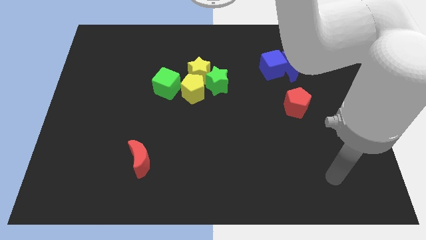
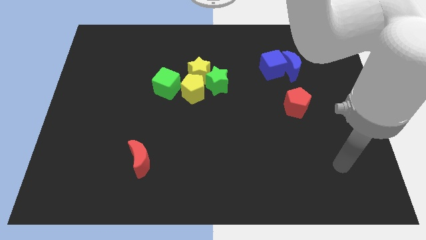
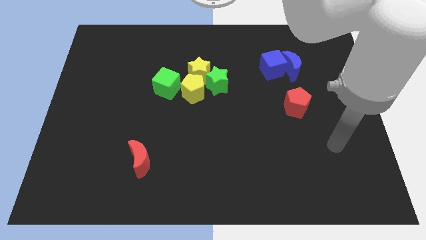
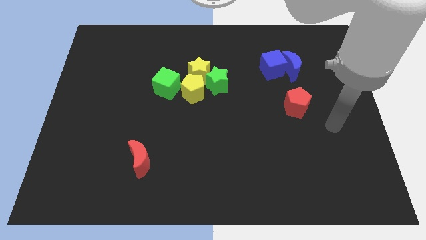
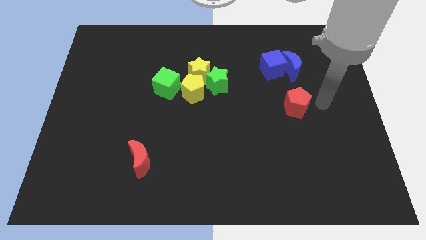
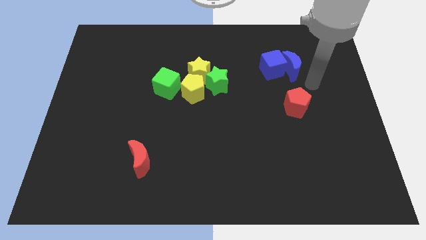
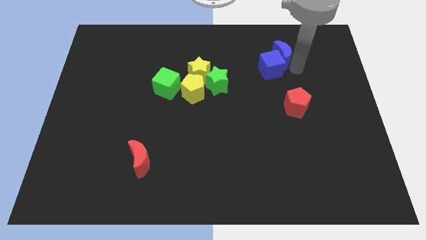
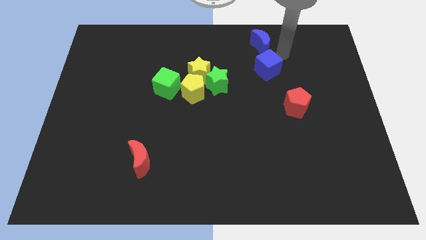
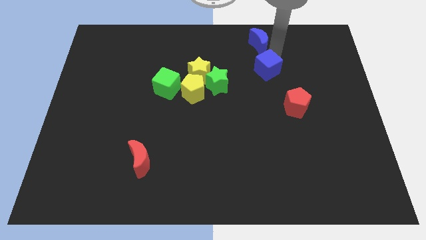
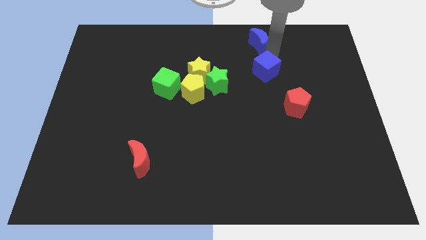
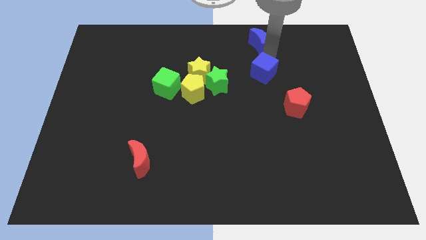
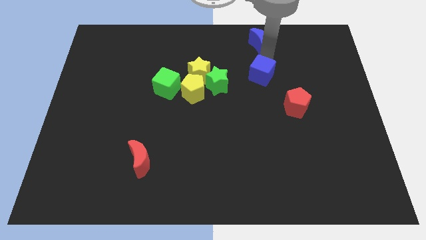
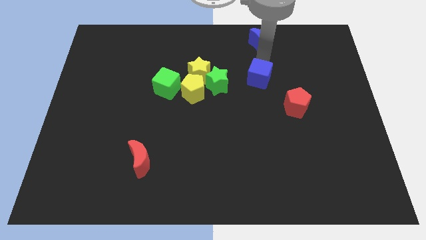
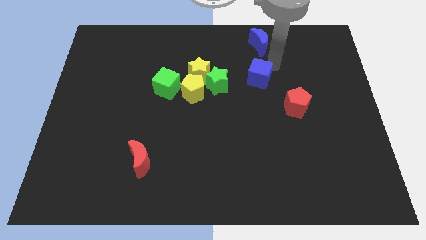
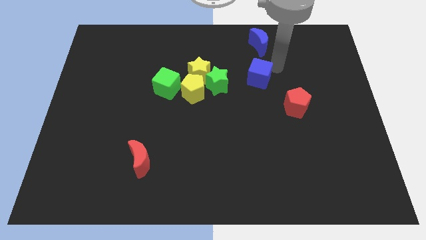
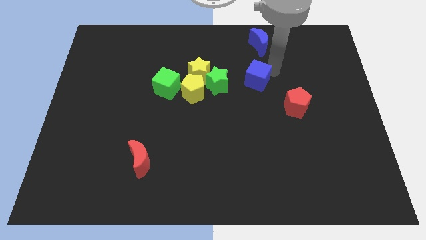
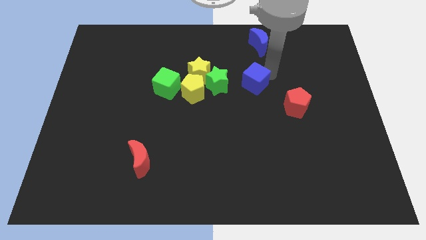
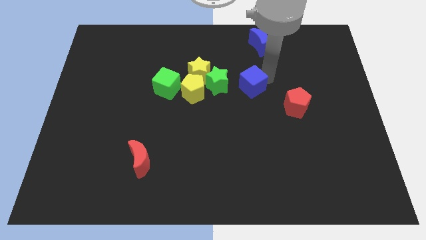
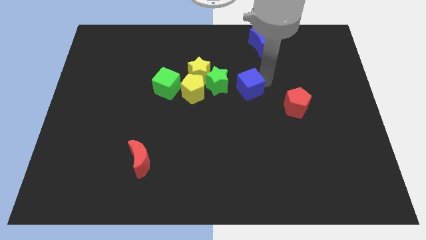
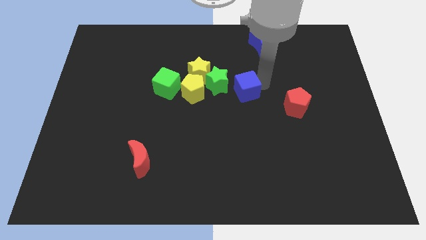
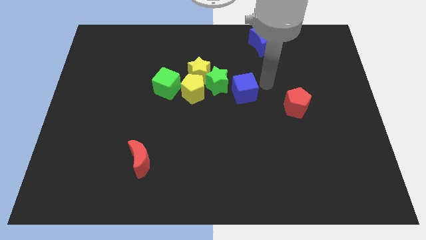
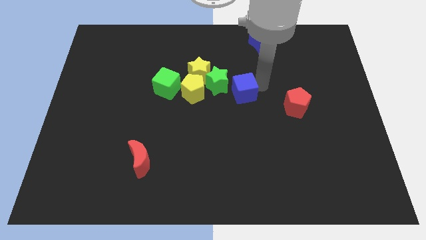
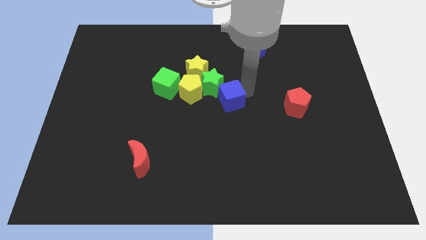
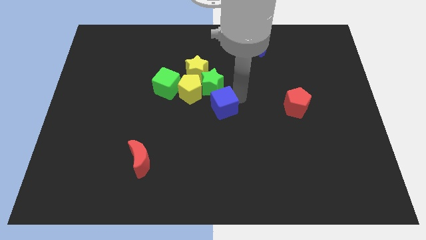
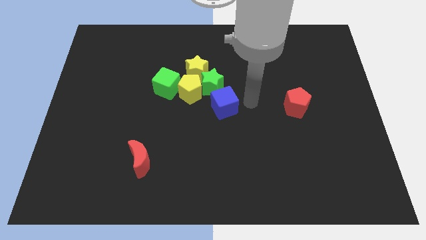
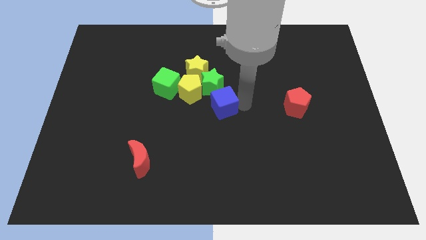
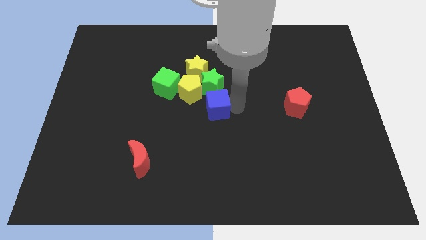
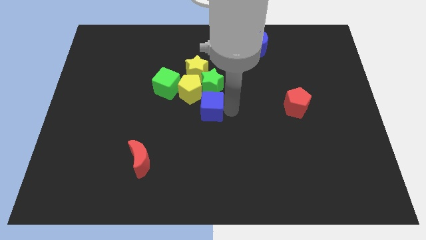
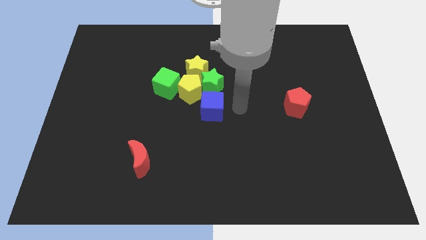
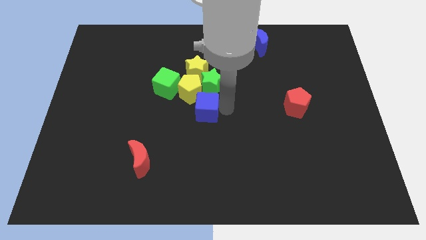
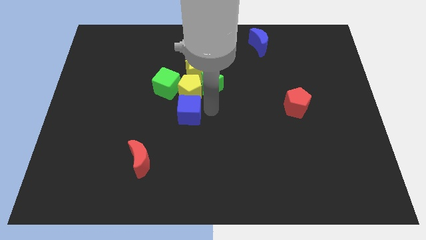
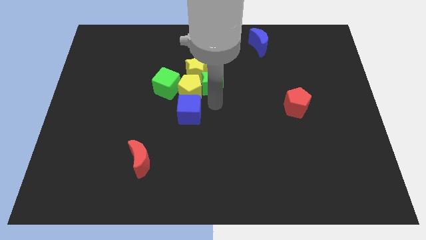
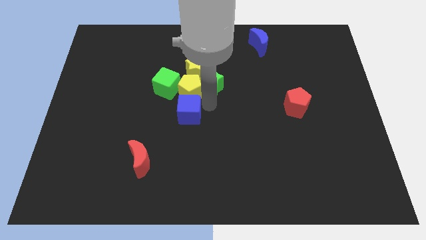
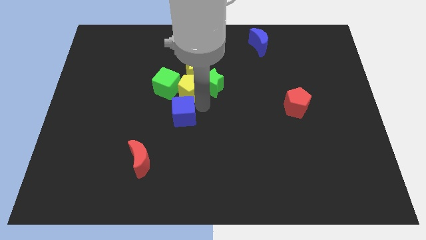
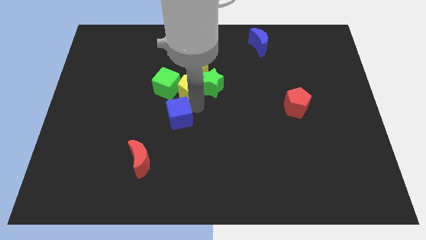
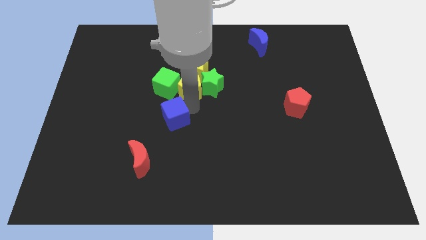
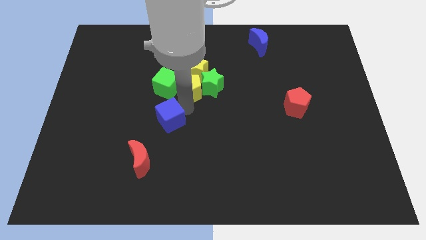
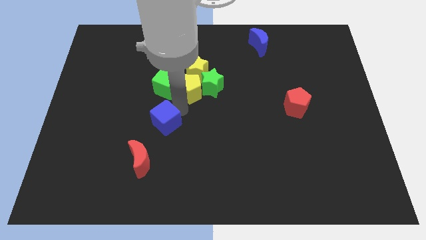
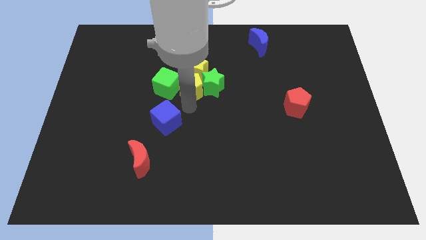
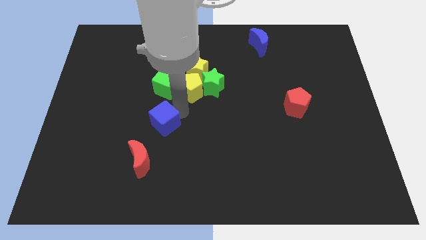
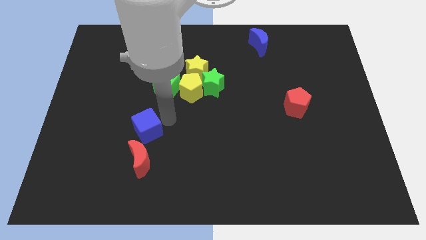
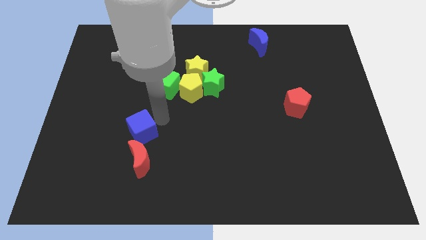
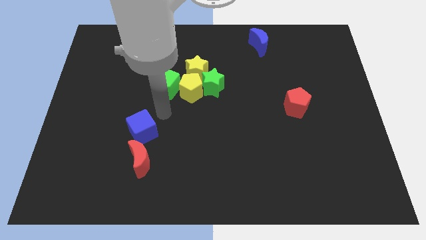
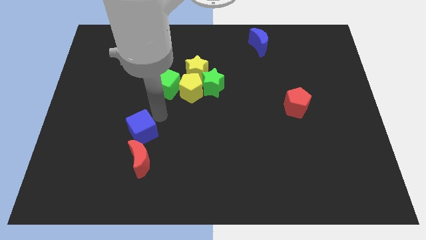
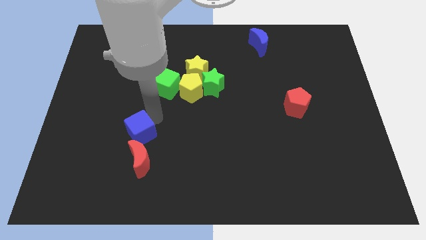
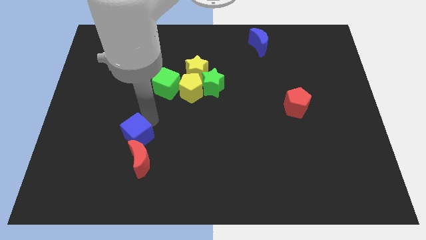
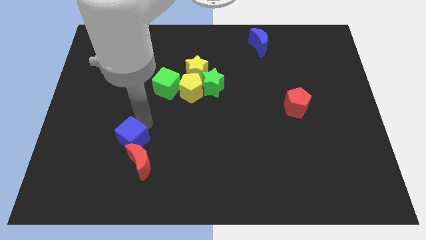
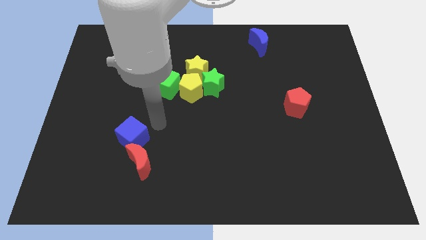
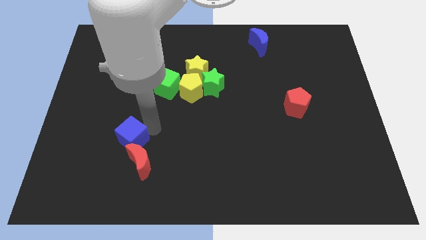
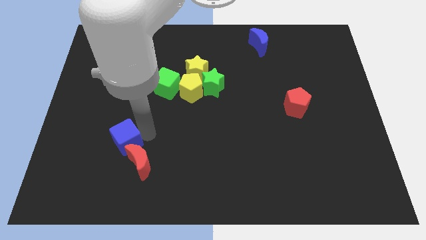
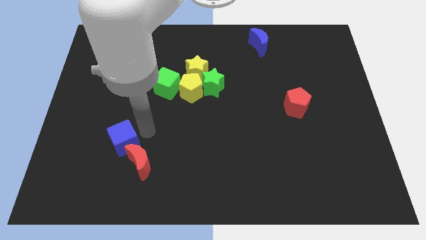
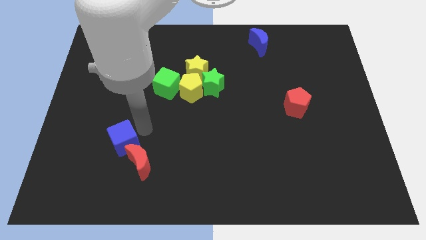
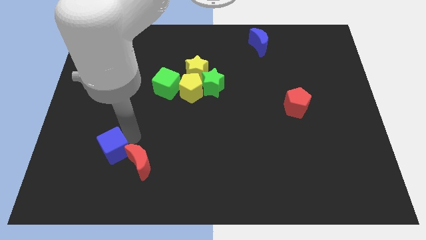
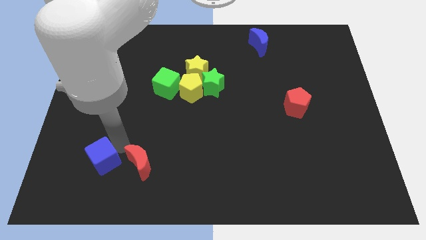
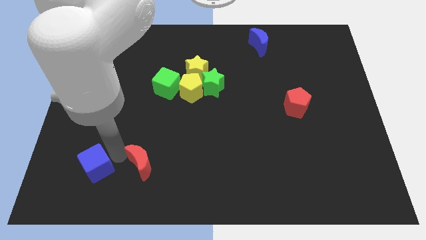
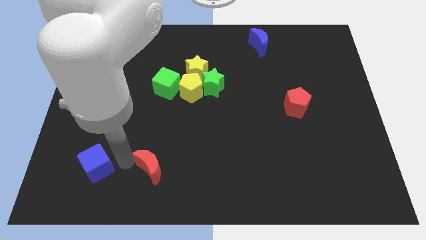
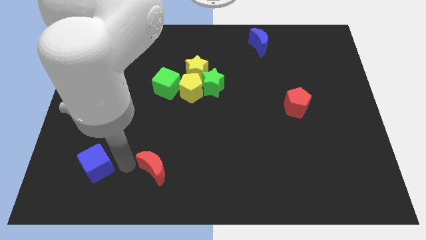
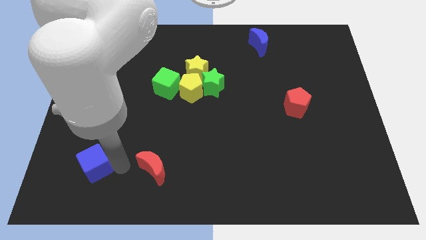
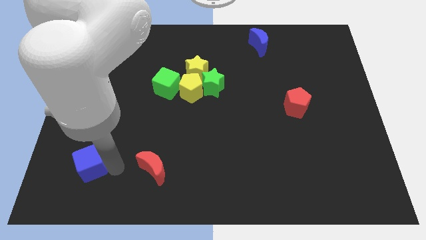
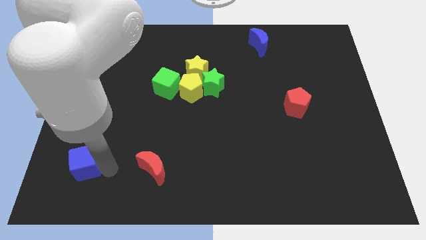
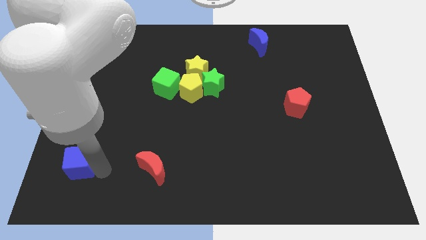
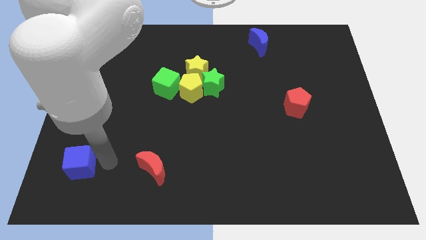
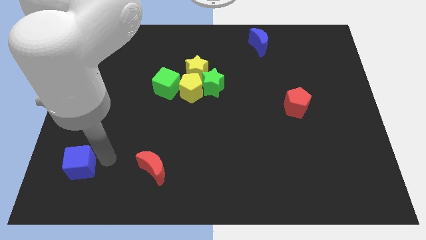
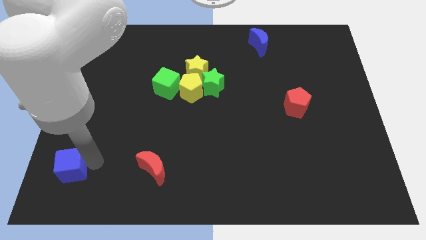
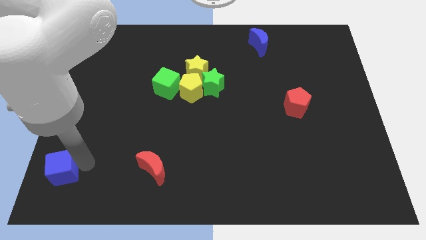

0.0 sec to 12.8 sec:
slide the blue cube to the bottom left corner
